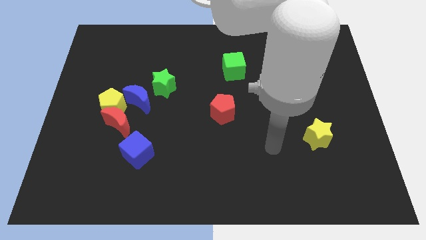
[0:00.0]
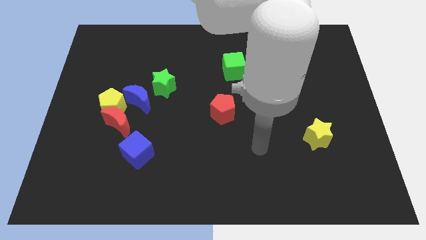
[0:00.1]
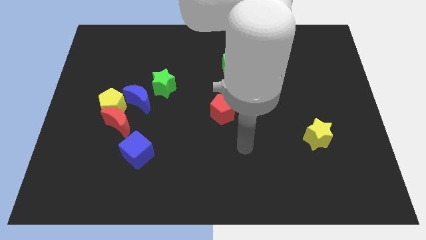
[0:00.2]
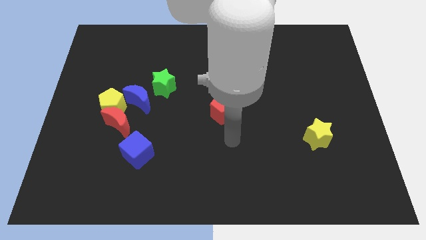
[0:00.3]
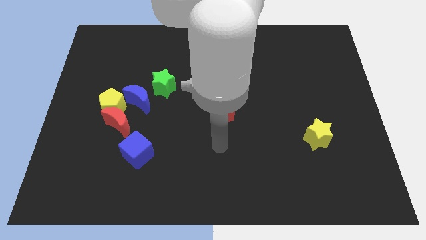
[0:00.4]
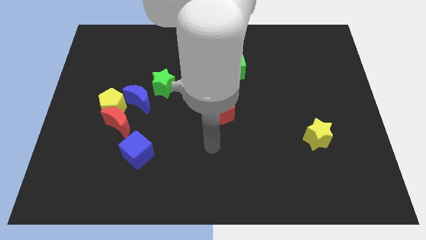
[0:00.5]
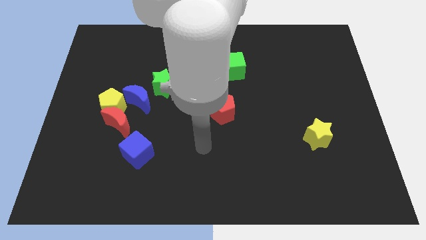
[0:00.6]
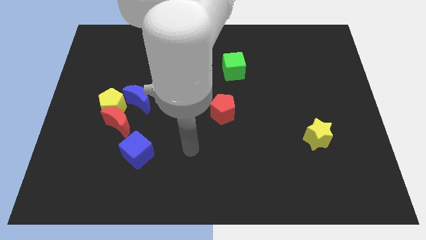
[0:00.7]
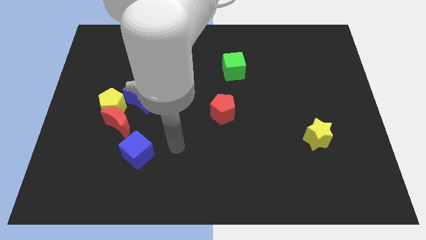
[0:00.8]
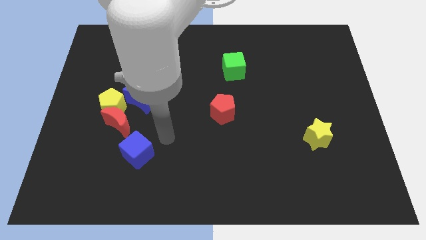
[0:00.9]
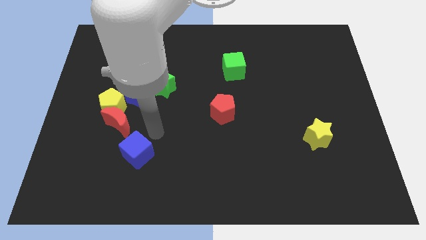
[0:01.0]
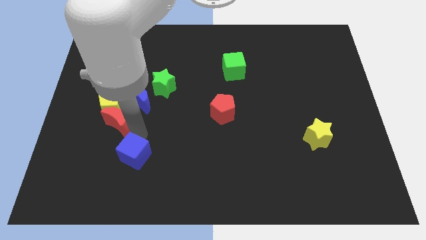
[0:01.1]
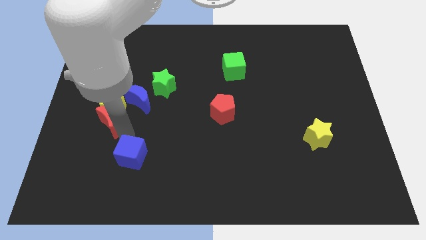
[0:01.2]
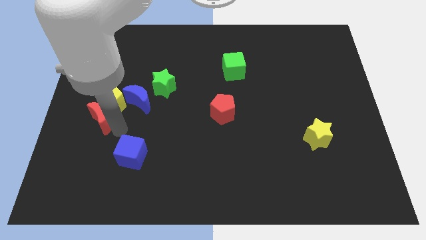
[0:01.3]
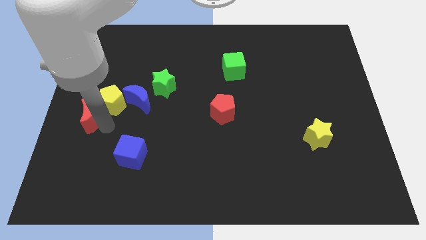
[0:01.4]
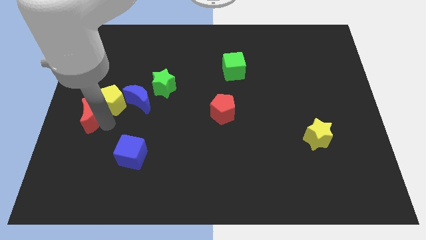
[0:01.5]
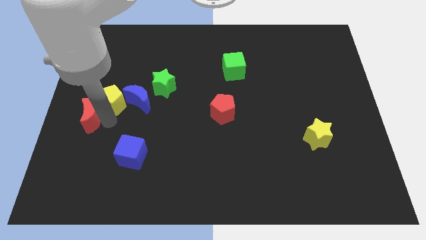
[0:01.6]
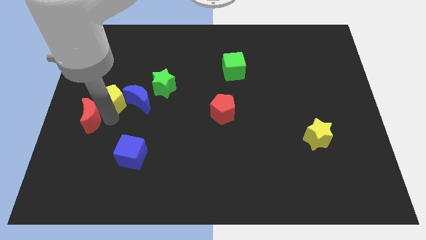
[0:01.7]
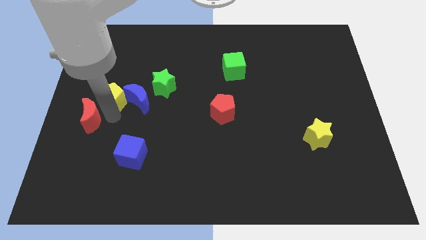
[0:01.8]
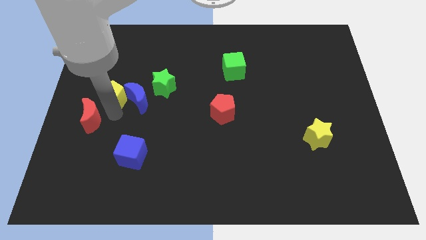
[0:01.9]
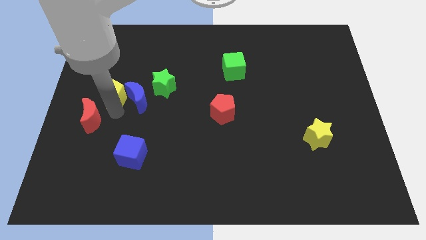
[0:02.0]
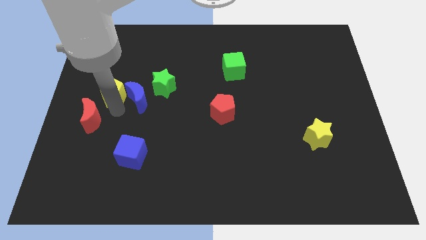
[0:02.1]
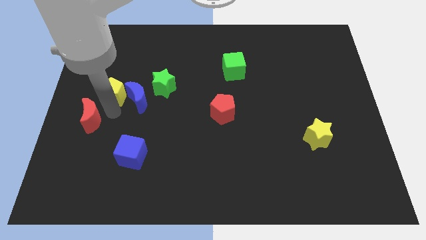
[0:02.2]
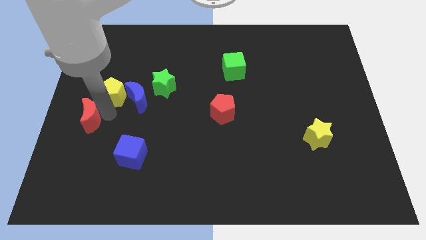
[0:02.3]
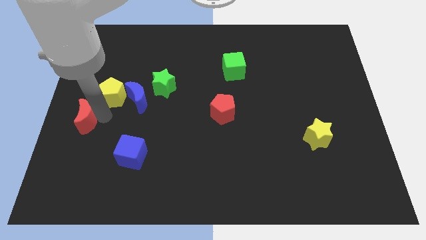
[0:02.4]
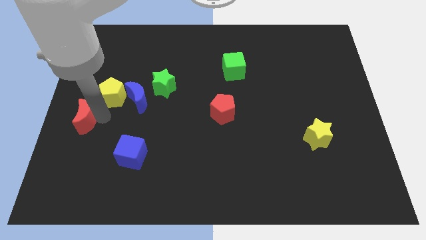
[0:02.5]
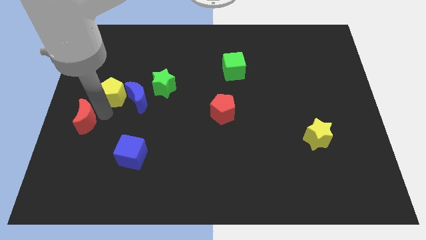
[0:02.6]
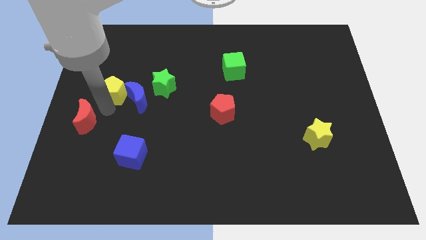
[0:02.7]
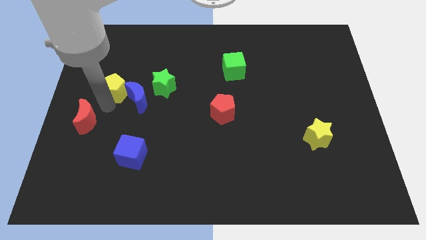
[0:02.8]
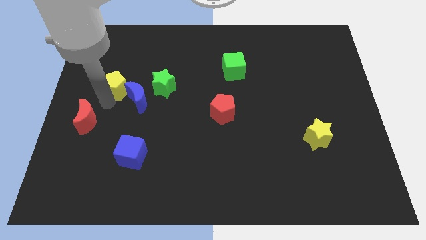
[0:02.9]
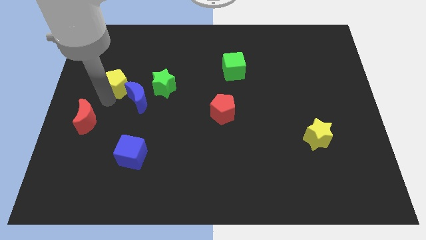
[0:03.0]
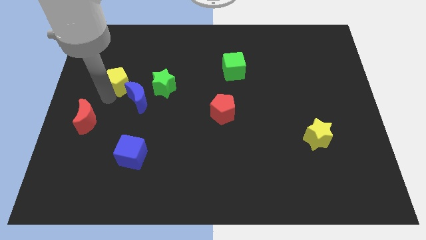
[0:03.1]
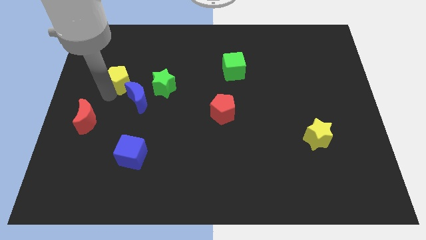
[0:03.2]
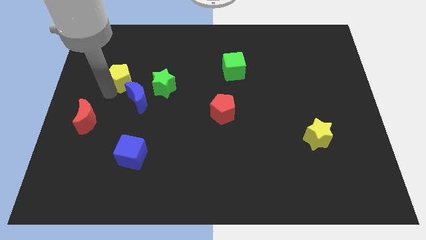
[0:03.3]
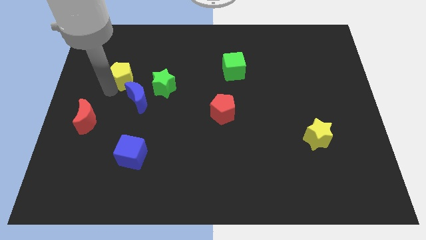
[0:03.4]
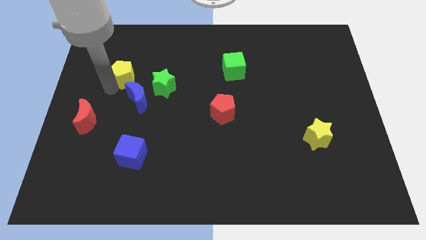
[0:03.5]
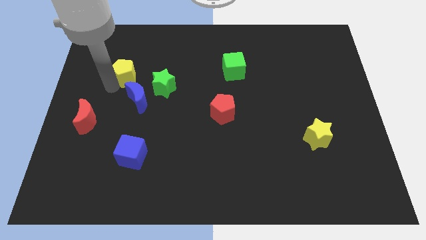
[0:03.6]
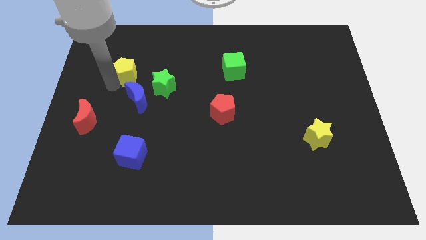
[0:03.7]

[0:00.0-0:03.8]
slightly slide the yellow pentagon diagonally upwards and right

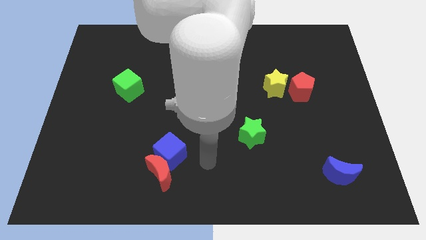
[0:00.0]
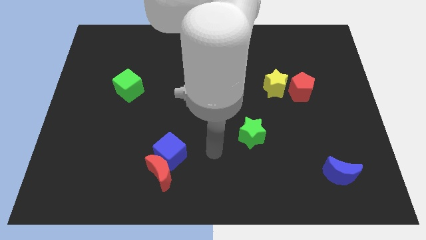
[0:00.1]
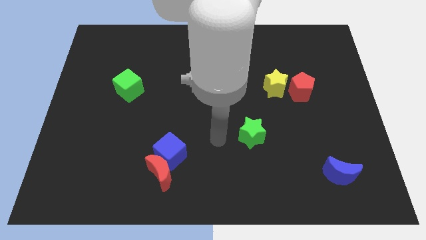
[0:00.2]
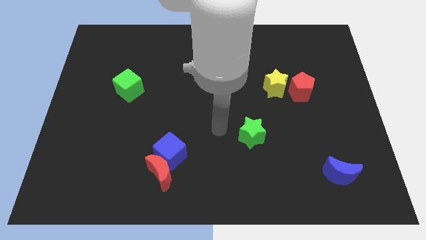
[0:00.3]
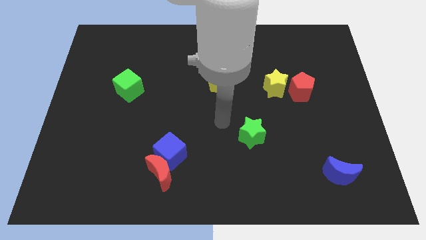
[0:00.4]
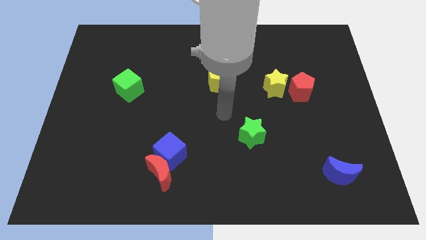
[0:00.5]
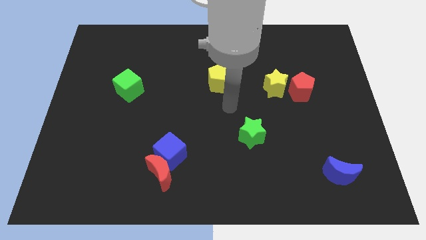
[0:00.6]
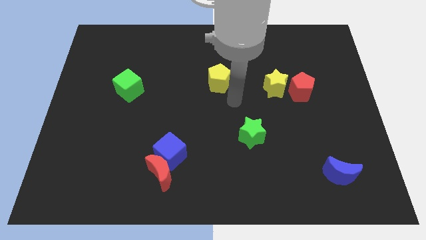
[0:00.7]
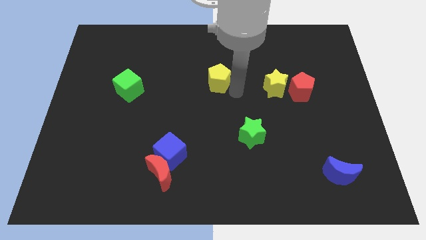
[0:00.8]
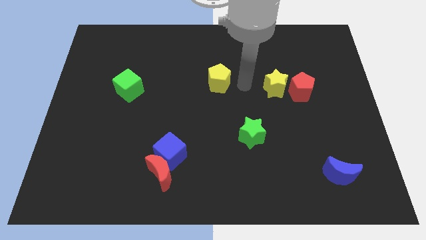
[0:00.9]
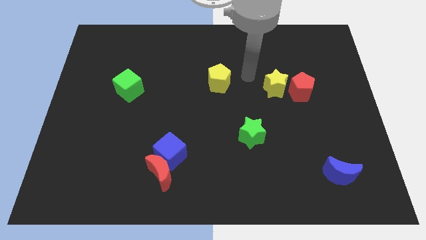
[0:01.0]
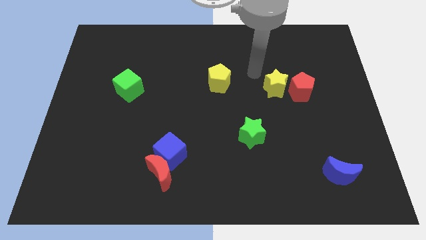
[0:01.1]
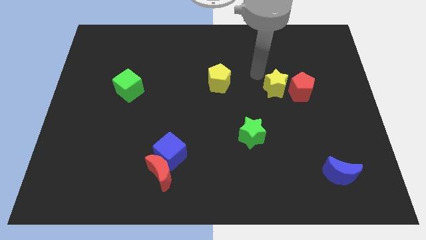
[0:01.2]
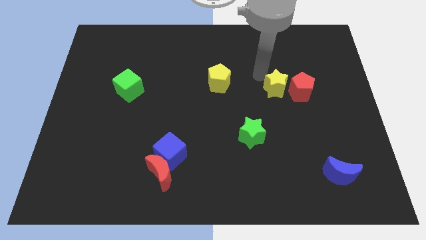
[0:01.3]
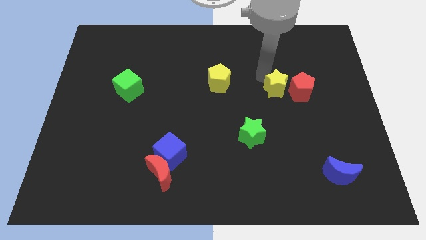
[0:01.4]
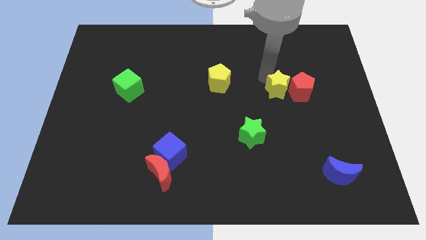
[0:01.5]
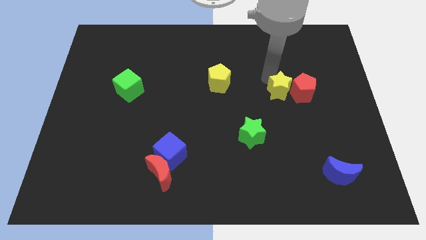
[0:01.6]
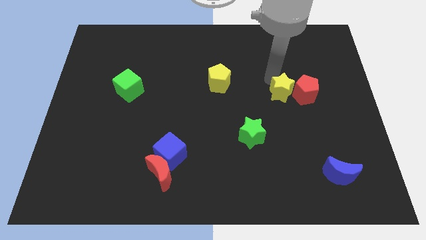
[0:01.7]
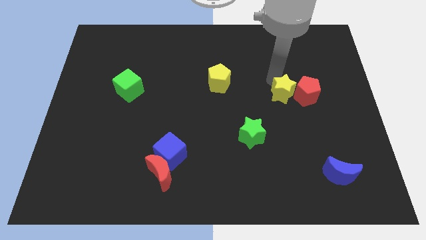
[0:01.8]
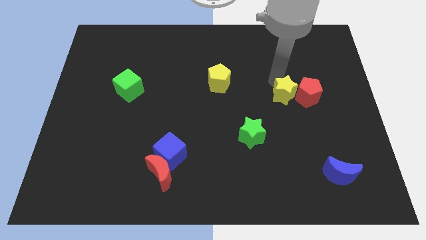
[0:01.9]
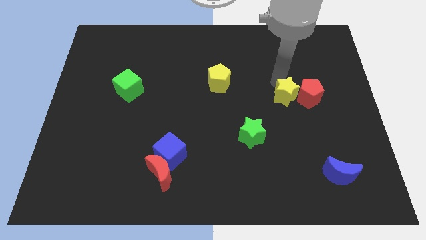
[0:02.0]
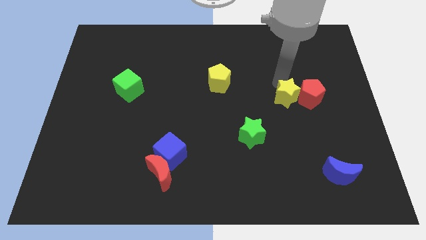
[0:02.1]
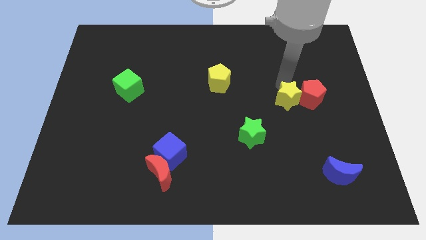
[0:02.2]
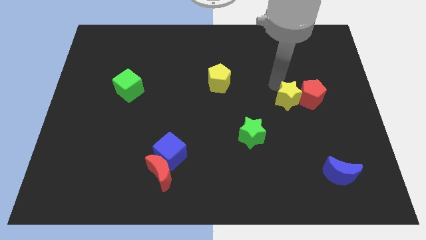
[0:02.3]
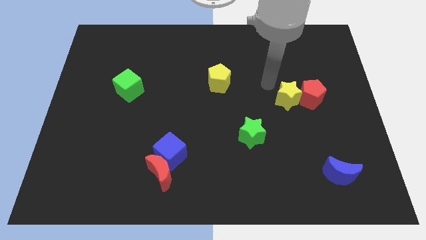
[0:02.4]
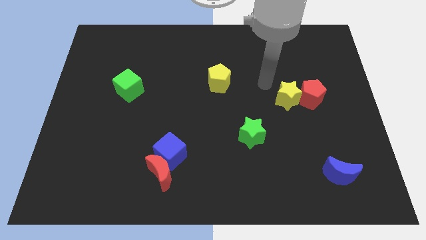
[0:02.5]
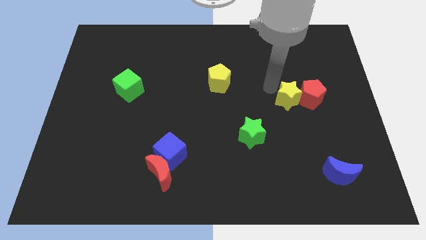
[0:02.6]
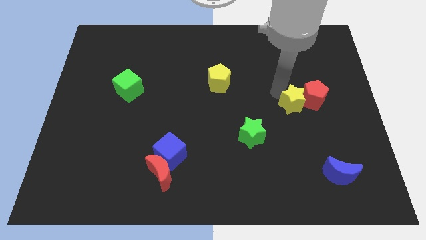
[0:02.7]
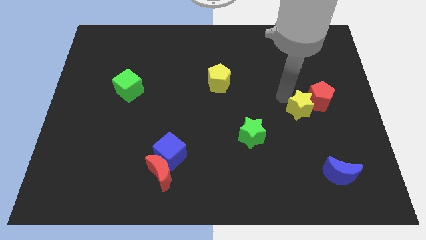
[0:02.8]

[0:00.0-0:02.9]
push the yellow star diagonally downwards and right a little bit

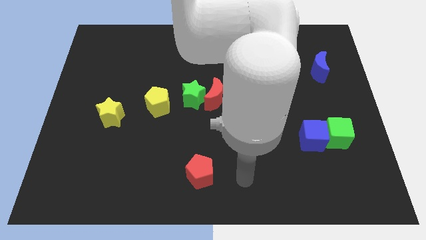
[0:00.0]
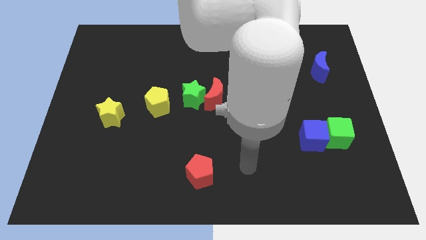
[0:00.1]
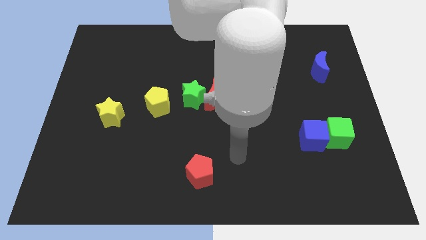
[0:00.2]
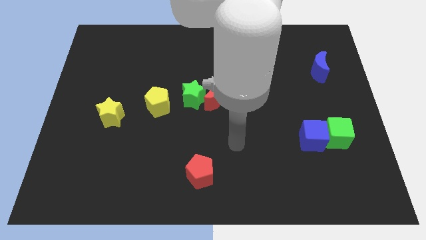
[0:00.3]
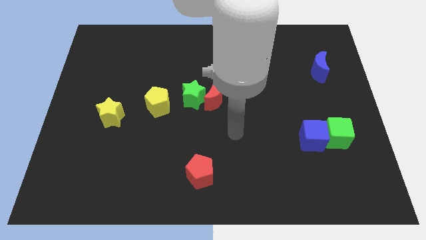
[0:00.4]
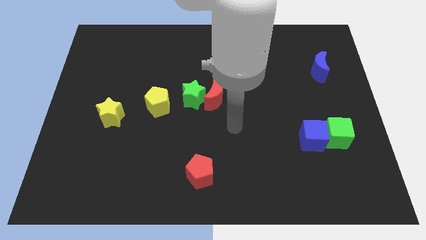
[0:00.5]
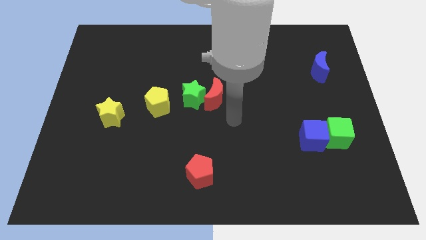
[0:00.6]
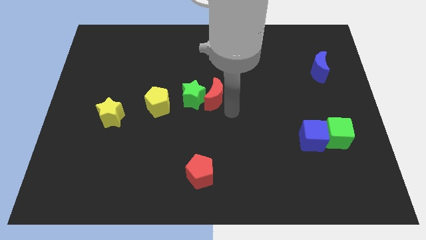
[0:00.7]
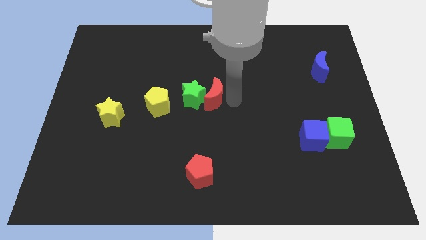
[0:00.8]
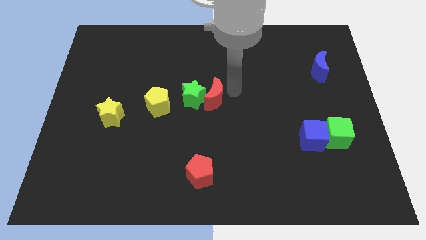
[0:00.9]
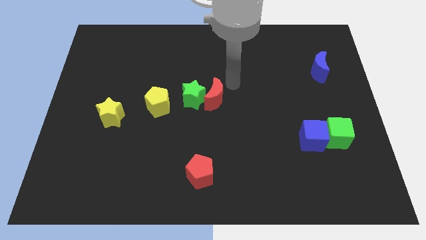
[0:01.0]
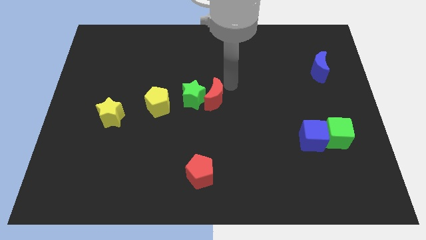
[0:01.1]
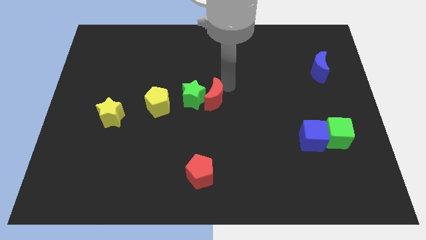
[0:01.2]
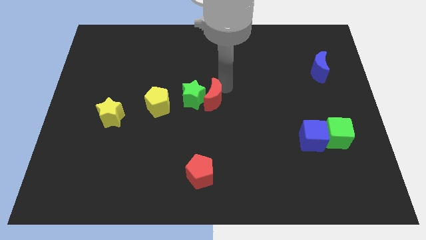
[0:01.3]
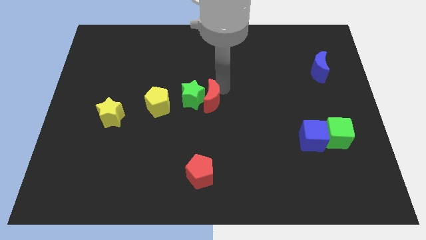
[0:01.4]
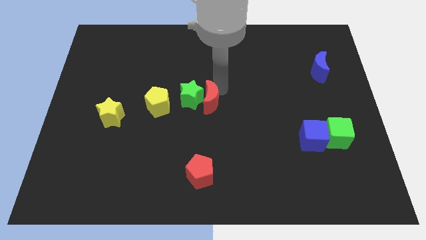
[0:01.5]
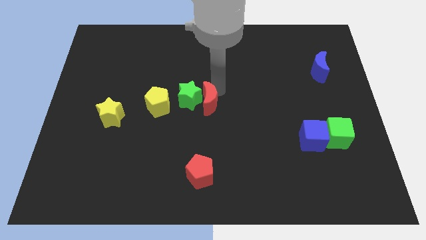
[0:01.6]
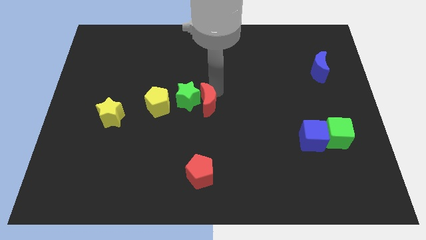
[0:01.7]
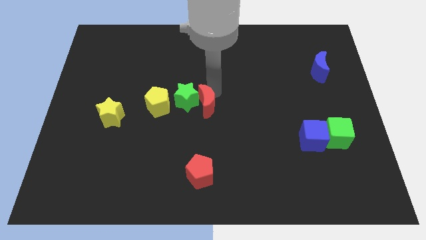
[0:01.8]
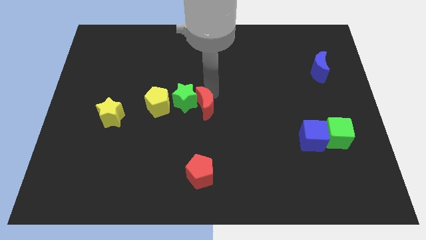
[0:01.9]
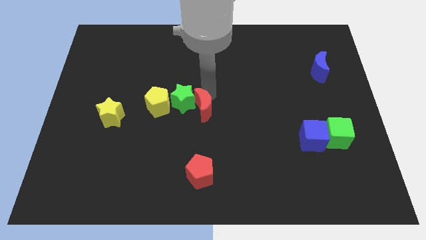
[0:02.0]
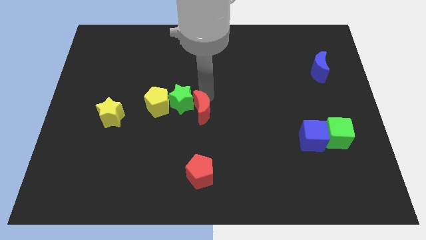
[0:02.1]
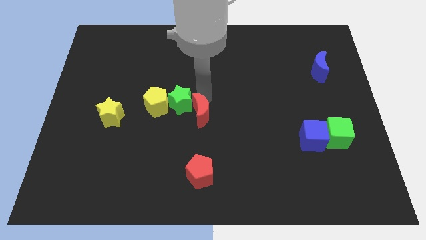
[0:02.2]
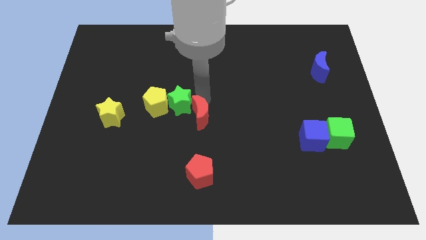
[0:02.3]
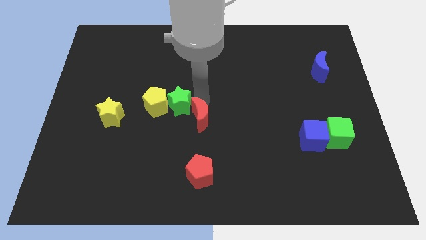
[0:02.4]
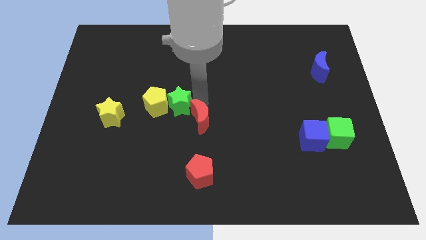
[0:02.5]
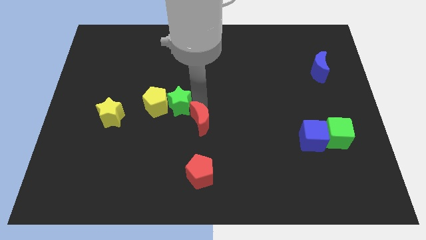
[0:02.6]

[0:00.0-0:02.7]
push the red moon a little diagonally downwards and left
